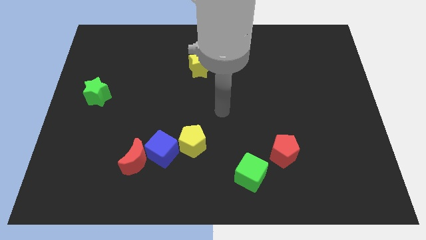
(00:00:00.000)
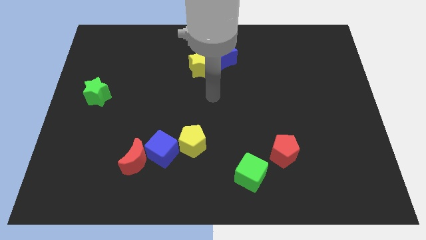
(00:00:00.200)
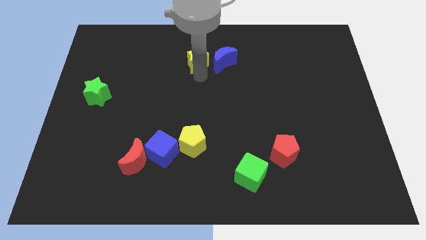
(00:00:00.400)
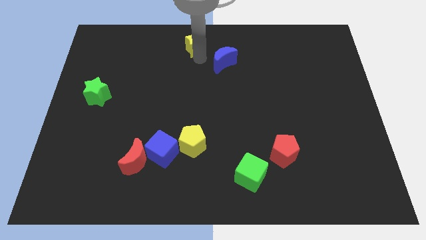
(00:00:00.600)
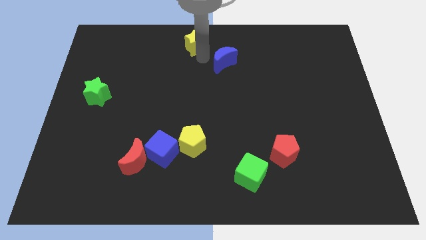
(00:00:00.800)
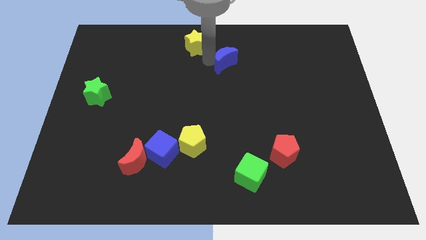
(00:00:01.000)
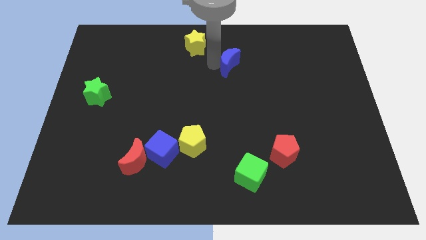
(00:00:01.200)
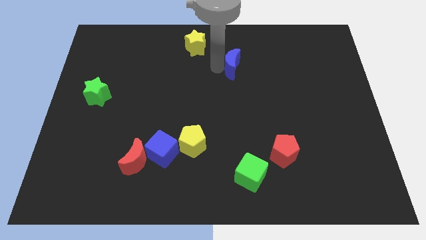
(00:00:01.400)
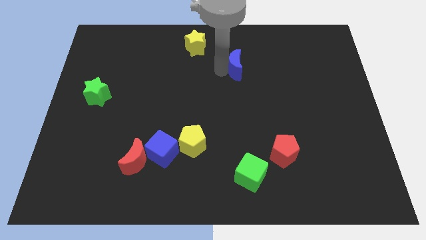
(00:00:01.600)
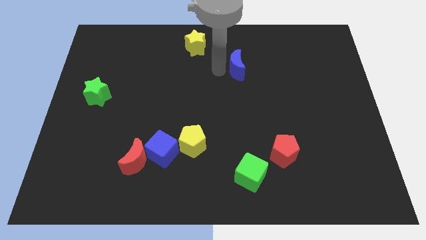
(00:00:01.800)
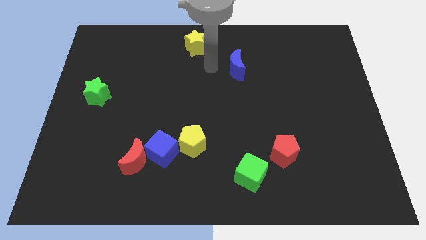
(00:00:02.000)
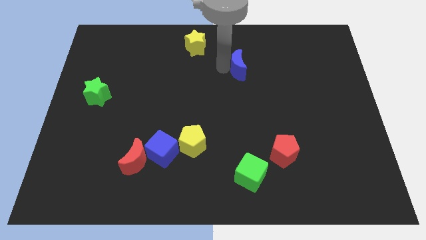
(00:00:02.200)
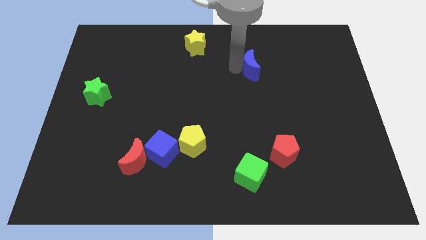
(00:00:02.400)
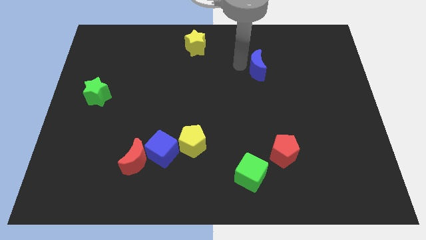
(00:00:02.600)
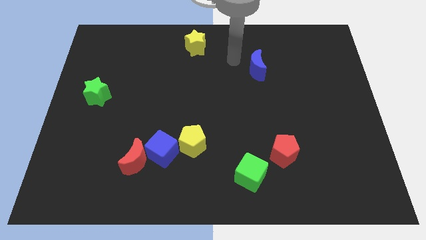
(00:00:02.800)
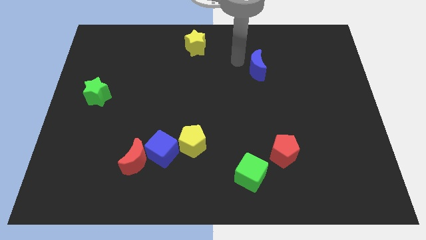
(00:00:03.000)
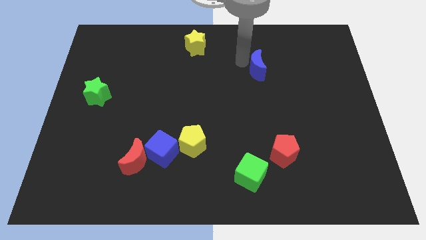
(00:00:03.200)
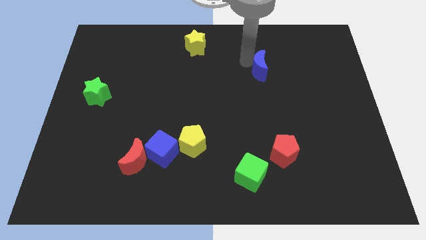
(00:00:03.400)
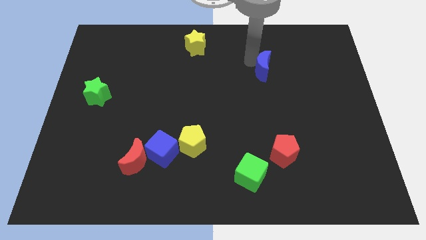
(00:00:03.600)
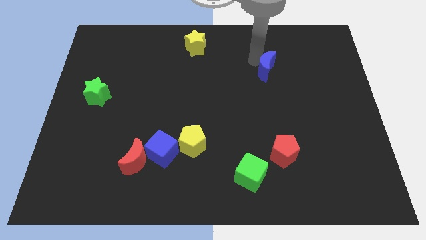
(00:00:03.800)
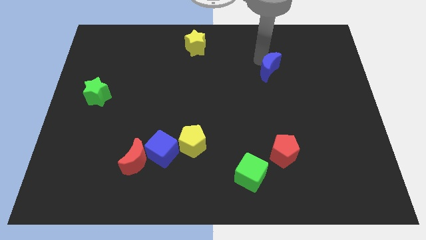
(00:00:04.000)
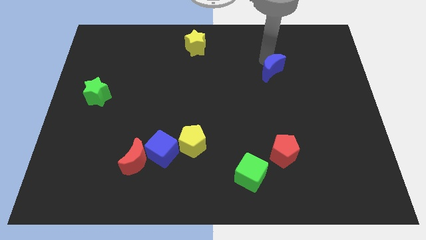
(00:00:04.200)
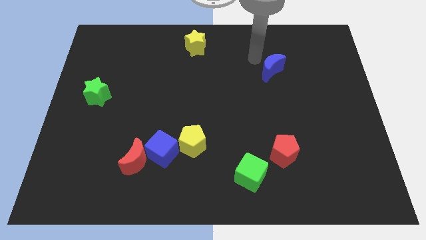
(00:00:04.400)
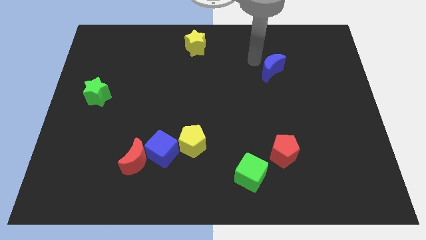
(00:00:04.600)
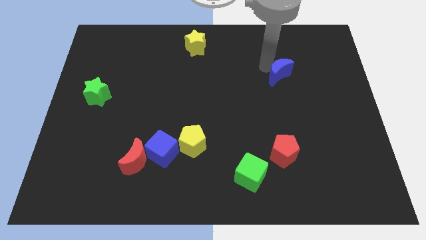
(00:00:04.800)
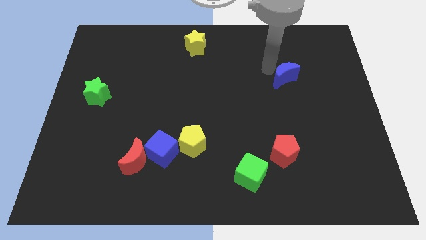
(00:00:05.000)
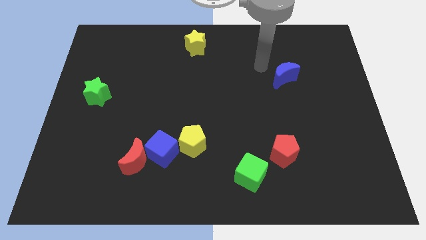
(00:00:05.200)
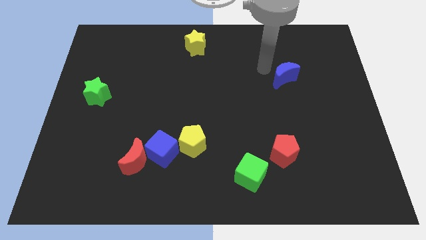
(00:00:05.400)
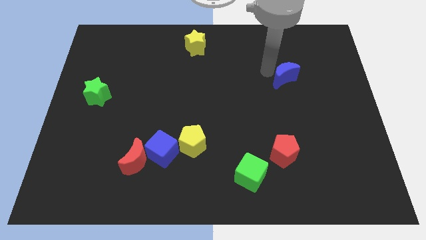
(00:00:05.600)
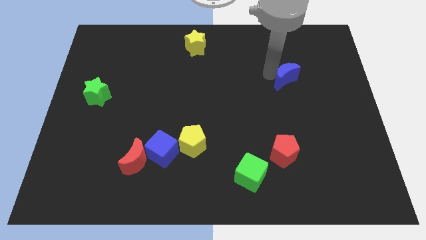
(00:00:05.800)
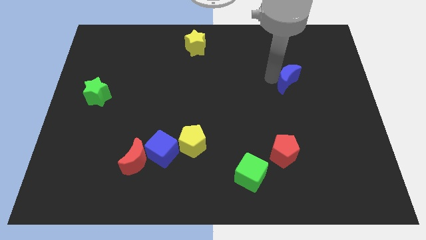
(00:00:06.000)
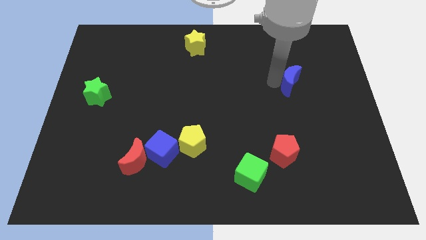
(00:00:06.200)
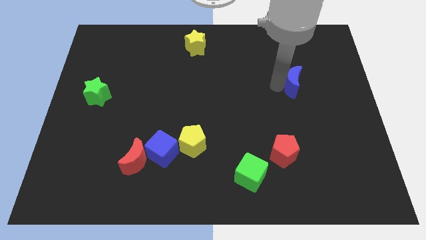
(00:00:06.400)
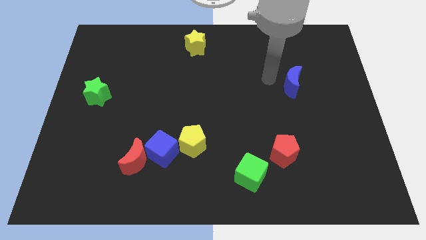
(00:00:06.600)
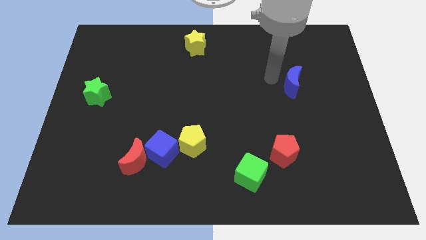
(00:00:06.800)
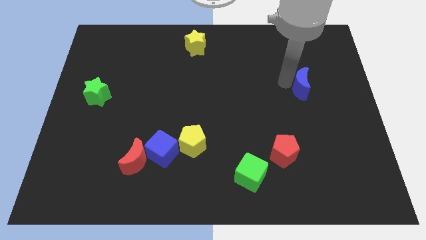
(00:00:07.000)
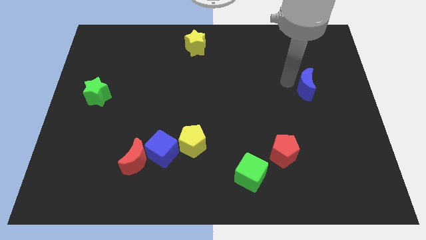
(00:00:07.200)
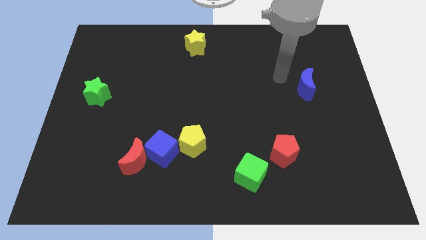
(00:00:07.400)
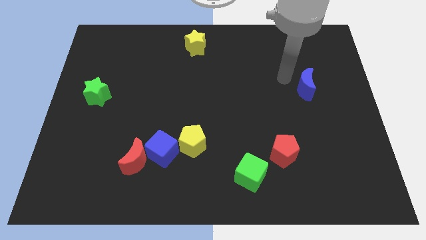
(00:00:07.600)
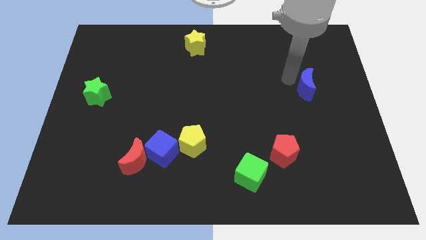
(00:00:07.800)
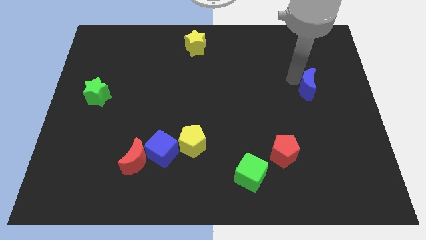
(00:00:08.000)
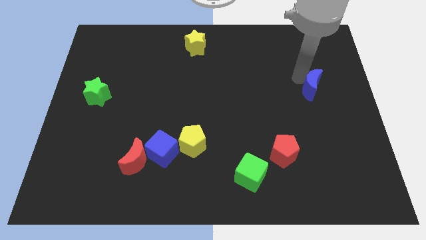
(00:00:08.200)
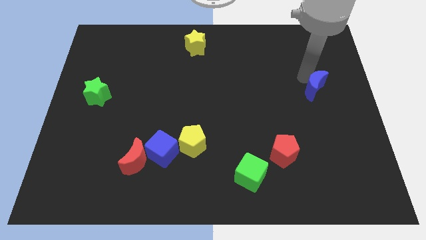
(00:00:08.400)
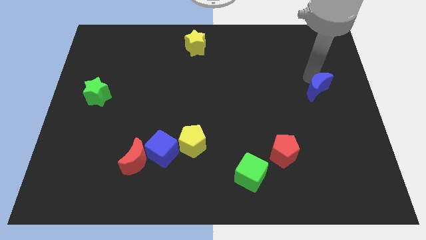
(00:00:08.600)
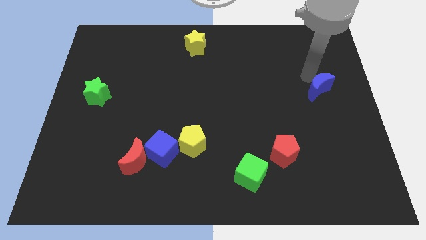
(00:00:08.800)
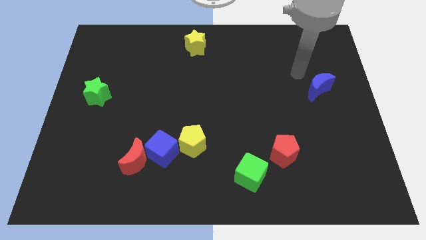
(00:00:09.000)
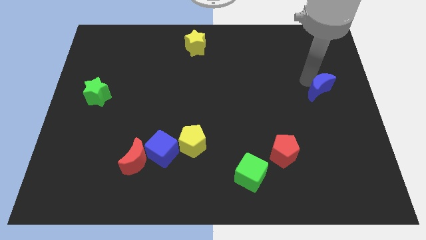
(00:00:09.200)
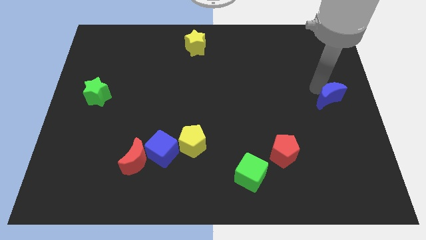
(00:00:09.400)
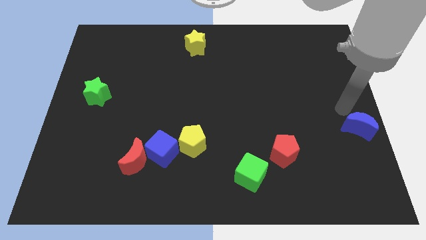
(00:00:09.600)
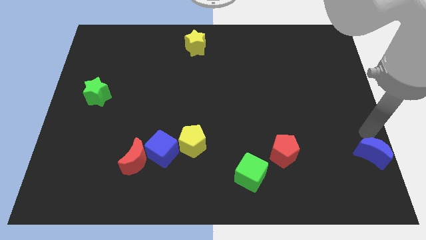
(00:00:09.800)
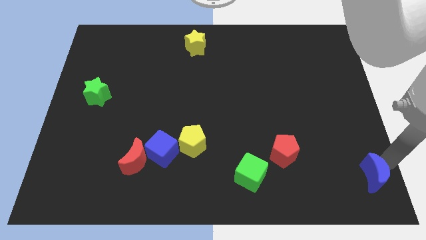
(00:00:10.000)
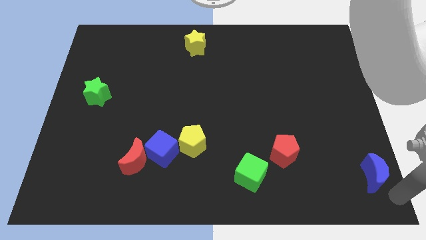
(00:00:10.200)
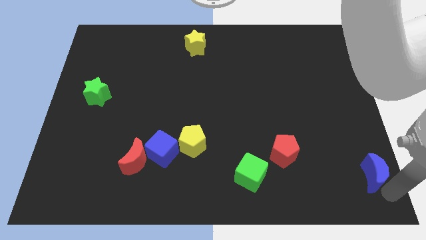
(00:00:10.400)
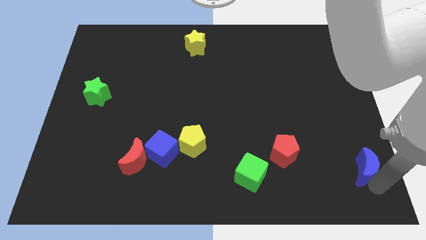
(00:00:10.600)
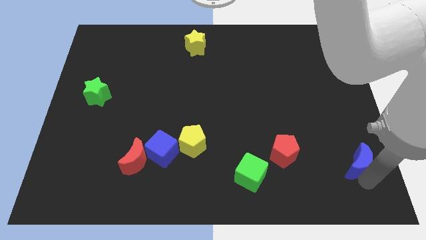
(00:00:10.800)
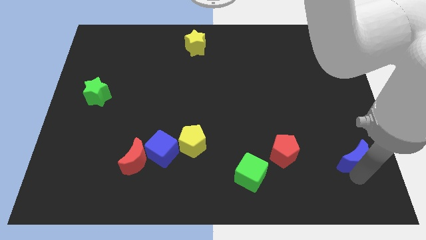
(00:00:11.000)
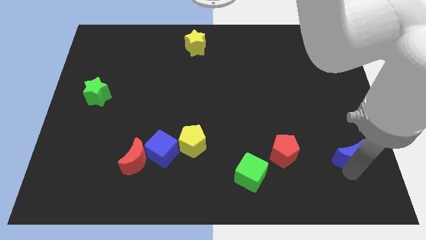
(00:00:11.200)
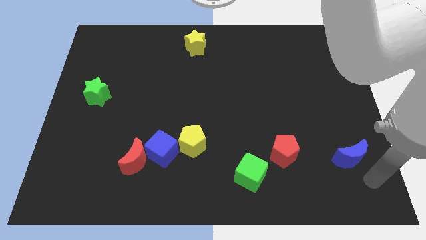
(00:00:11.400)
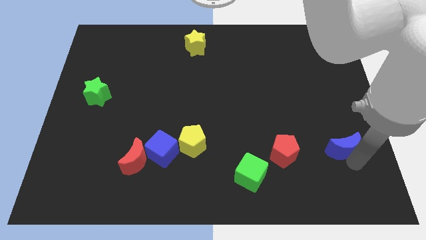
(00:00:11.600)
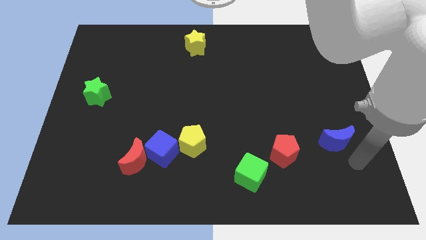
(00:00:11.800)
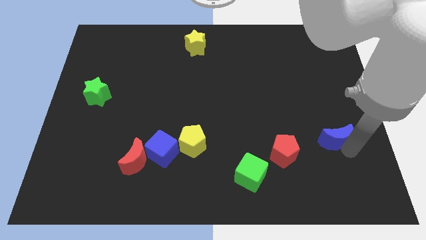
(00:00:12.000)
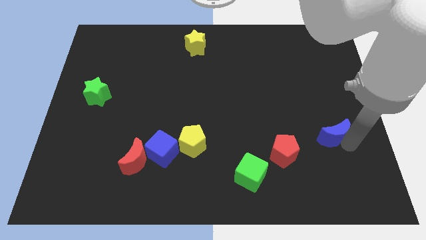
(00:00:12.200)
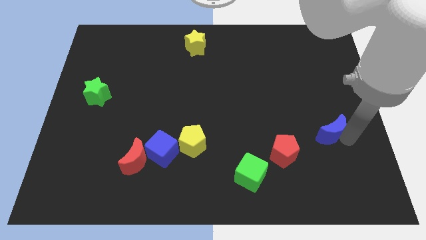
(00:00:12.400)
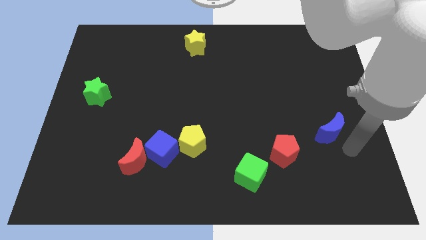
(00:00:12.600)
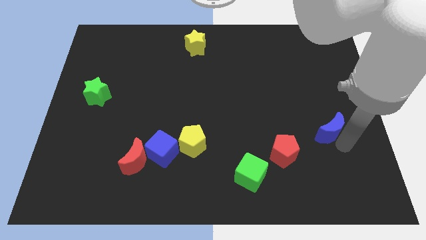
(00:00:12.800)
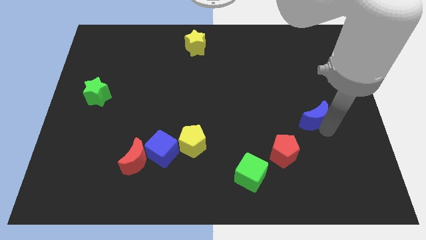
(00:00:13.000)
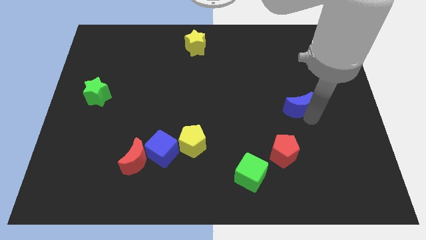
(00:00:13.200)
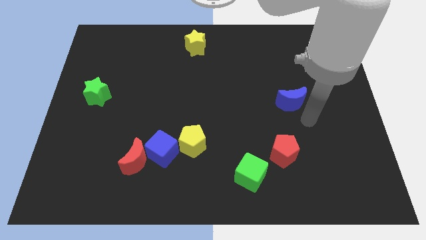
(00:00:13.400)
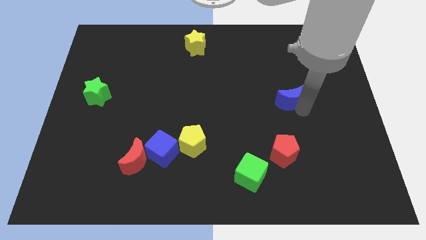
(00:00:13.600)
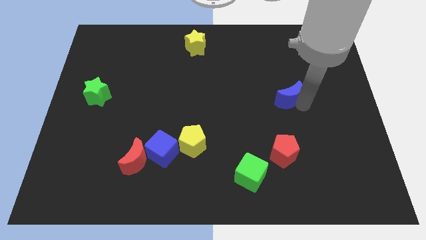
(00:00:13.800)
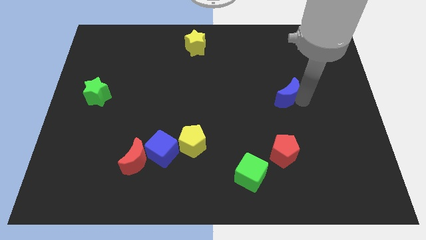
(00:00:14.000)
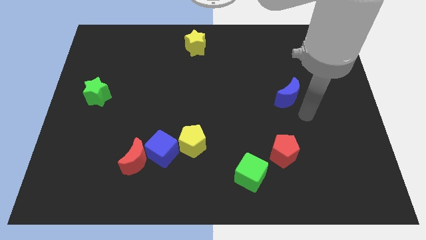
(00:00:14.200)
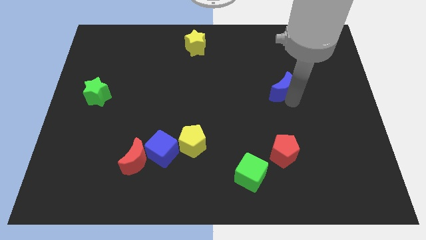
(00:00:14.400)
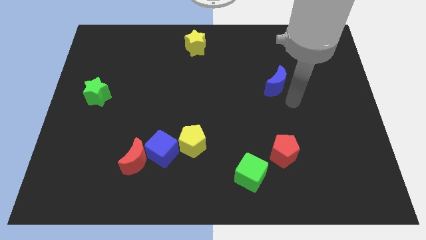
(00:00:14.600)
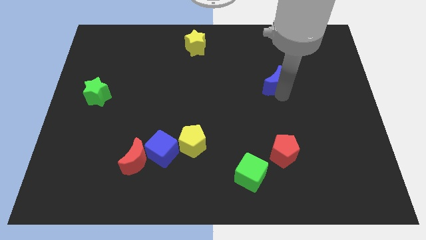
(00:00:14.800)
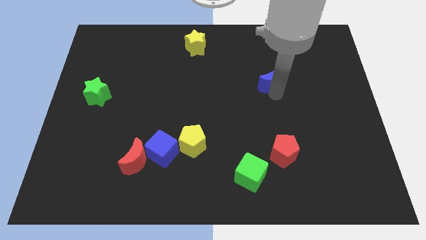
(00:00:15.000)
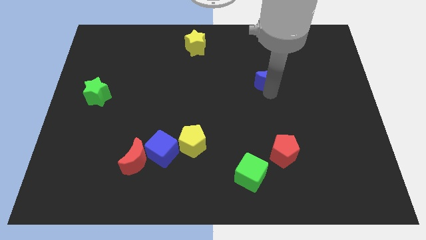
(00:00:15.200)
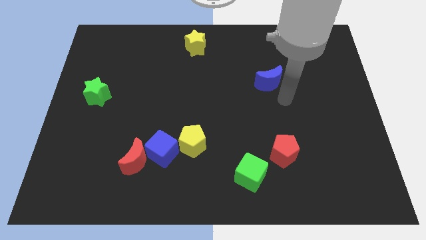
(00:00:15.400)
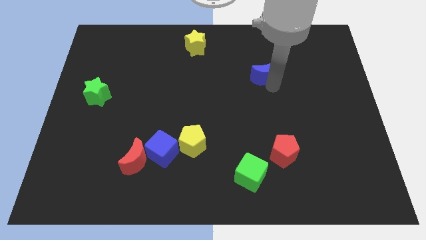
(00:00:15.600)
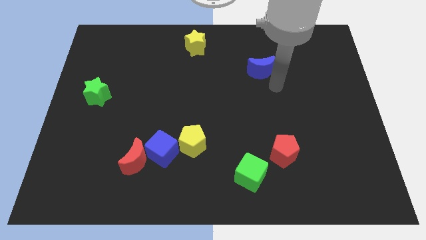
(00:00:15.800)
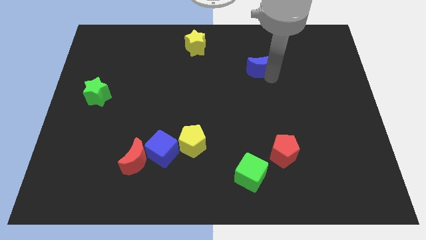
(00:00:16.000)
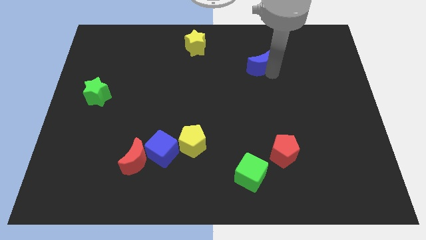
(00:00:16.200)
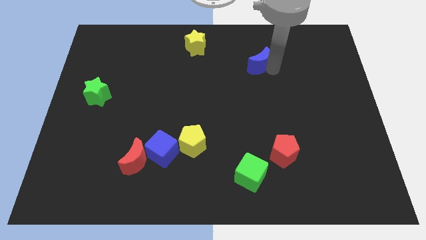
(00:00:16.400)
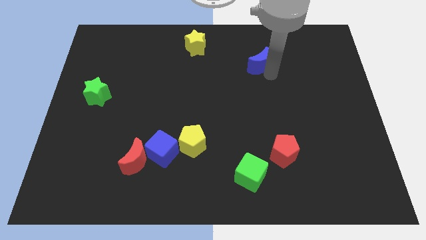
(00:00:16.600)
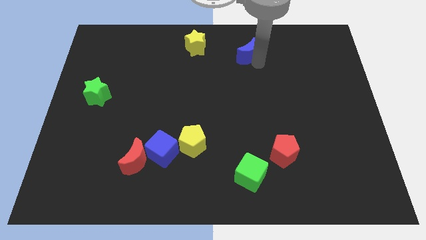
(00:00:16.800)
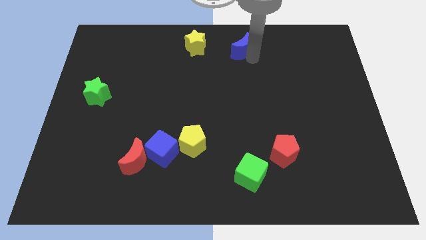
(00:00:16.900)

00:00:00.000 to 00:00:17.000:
put the blue moon to the top
